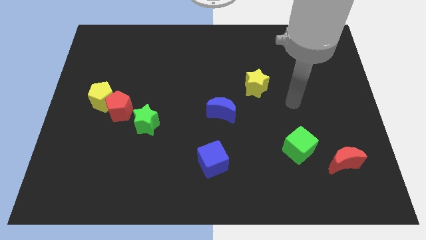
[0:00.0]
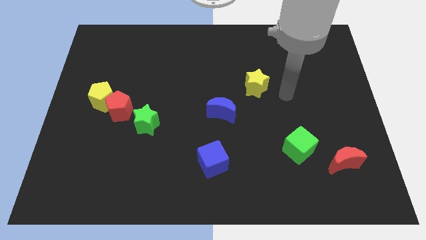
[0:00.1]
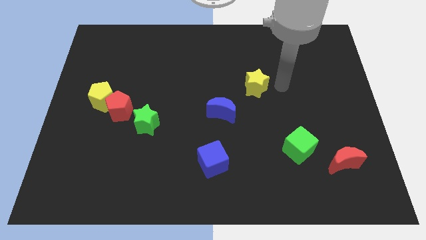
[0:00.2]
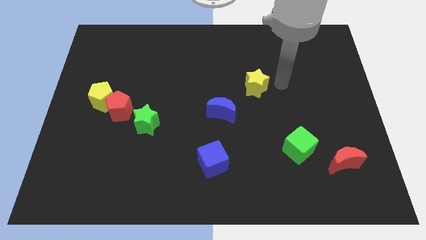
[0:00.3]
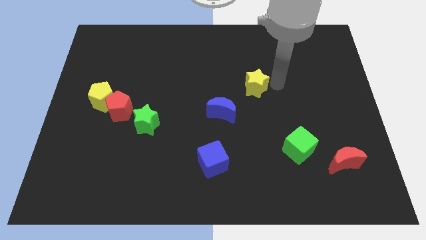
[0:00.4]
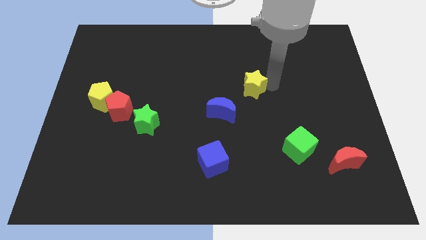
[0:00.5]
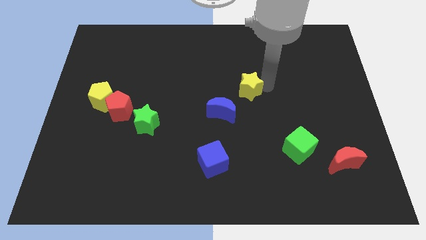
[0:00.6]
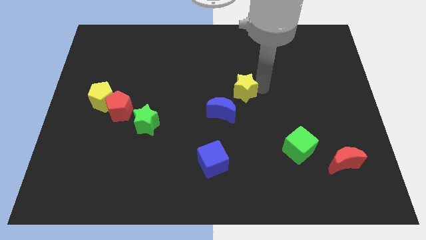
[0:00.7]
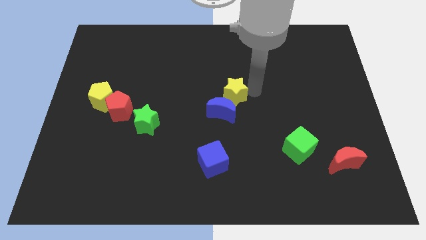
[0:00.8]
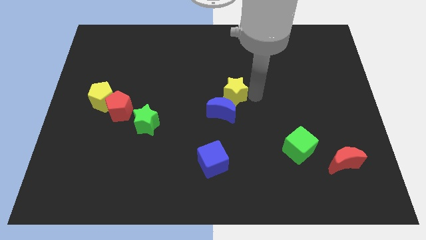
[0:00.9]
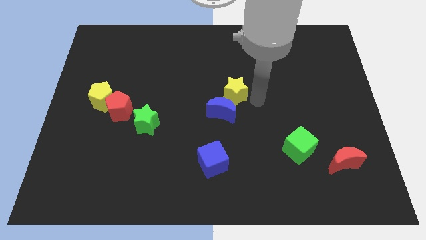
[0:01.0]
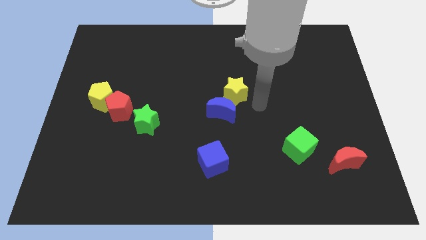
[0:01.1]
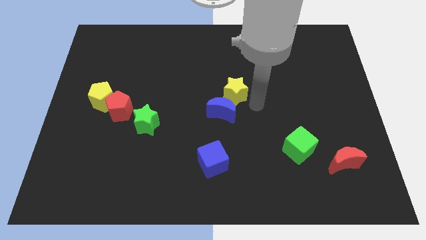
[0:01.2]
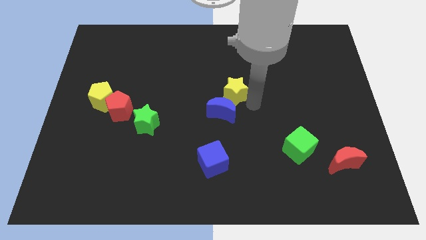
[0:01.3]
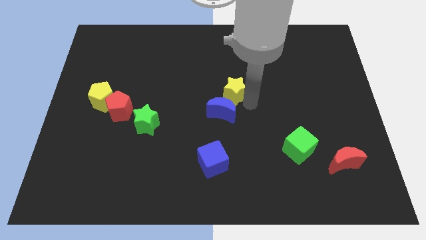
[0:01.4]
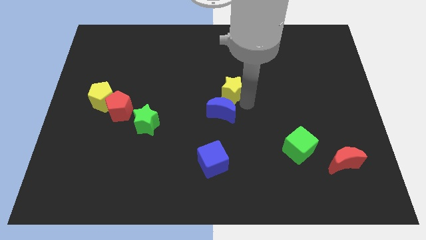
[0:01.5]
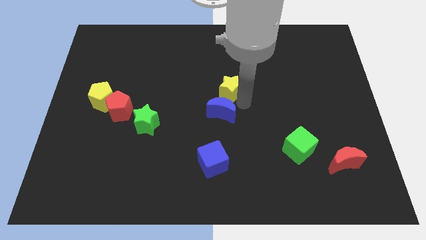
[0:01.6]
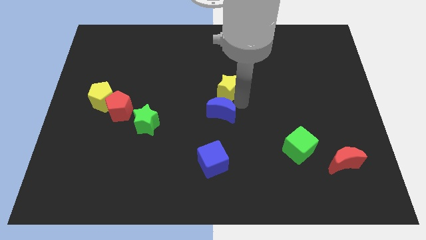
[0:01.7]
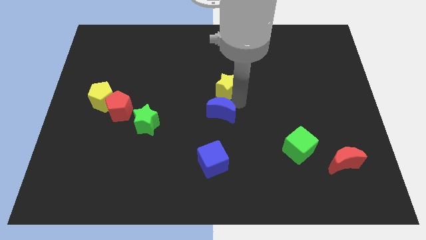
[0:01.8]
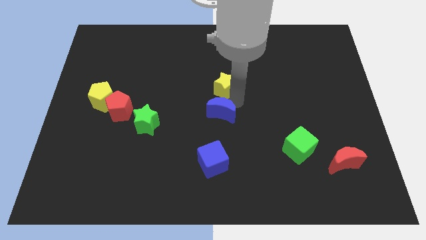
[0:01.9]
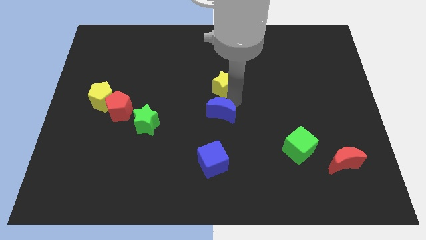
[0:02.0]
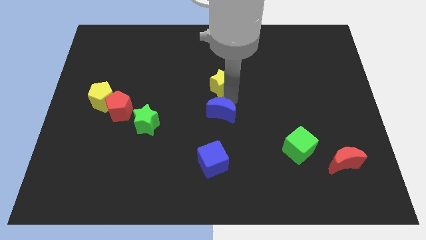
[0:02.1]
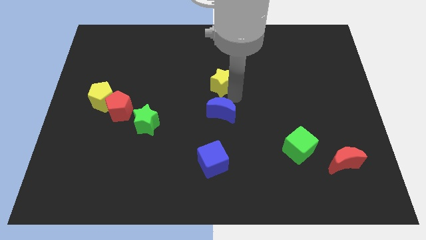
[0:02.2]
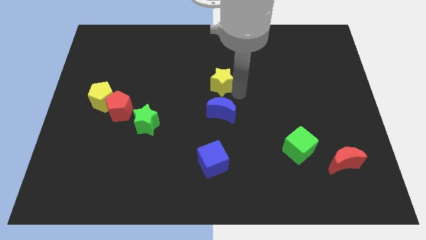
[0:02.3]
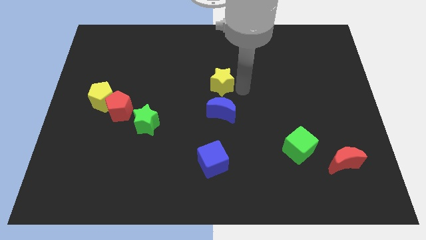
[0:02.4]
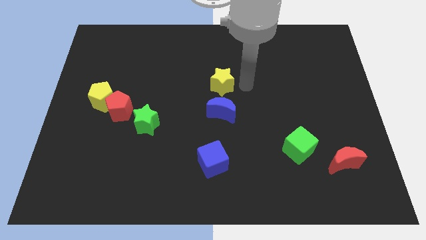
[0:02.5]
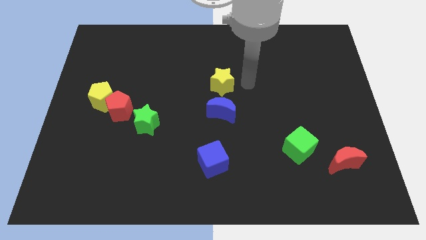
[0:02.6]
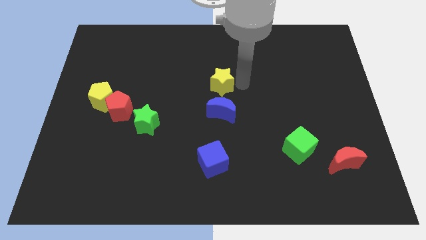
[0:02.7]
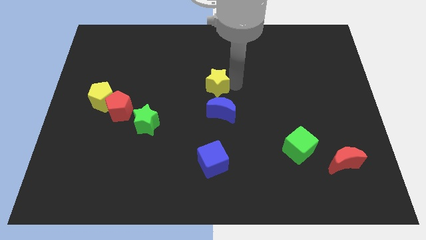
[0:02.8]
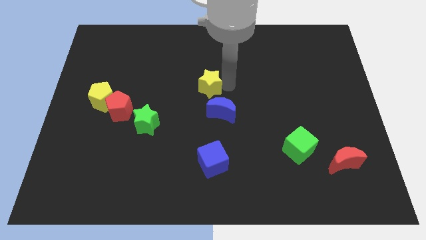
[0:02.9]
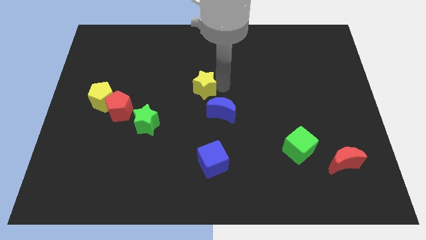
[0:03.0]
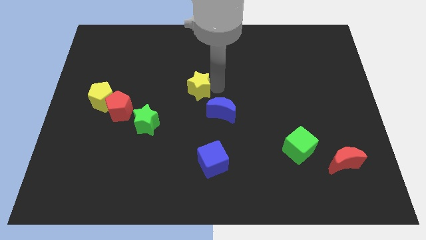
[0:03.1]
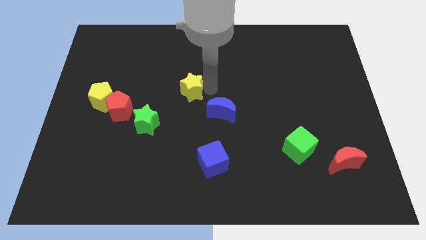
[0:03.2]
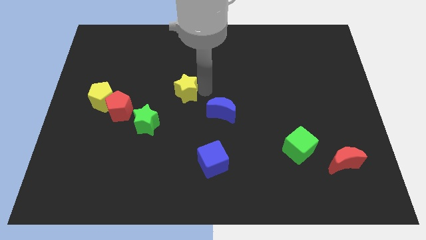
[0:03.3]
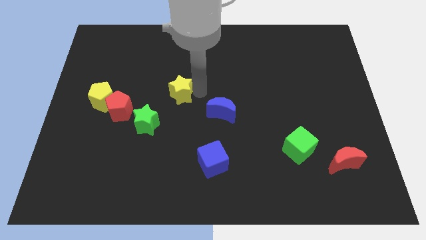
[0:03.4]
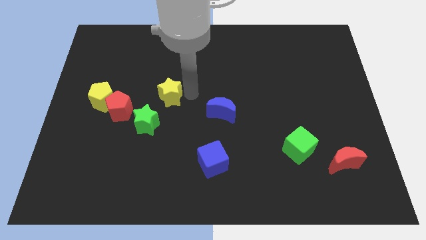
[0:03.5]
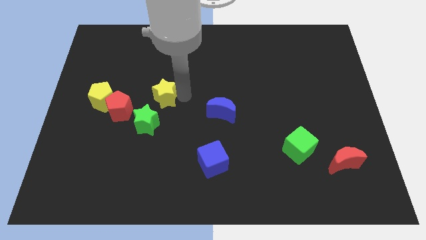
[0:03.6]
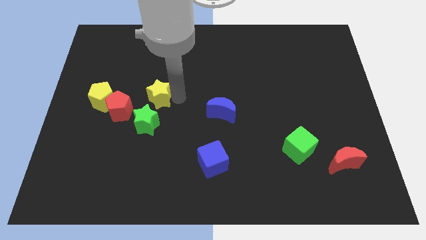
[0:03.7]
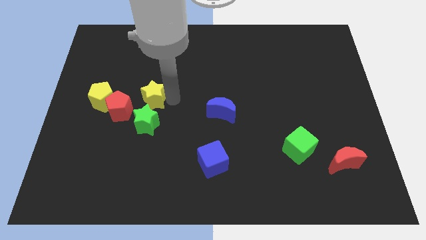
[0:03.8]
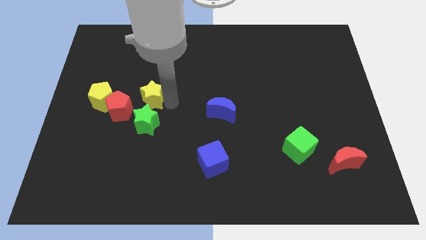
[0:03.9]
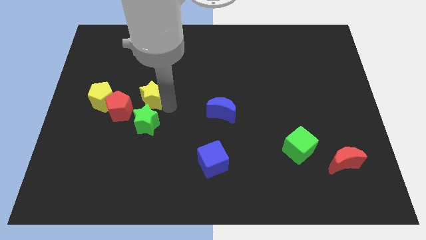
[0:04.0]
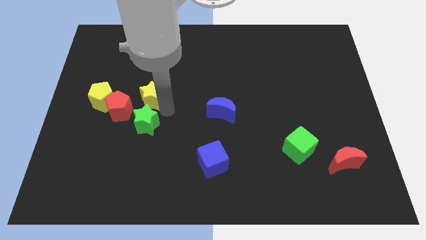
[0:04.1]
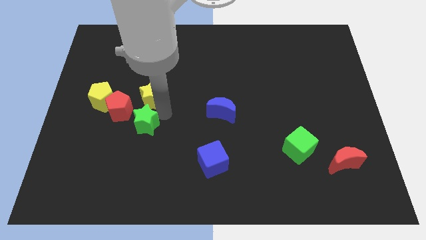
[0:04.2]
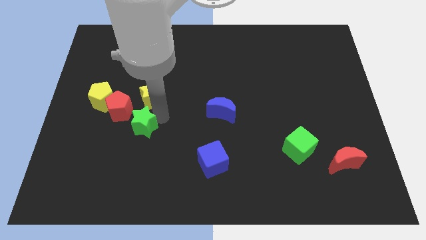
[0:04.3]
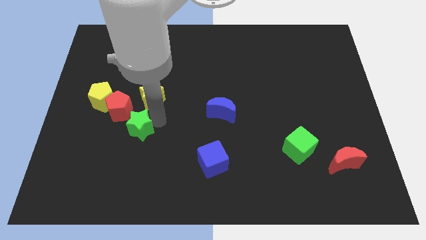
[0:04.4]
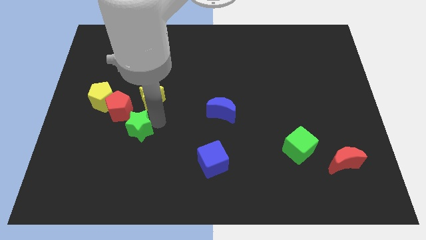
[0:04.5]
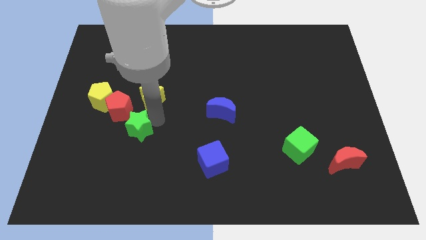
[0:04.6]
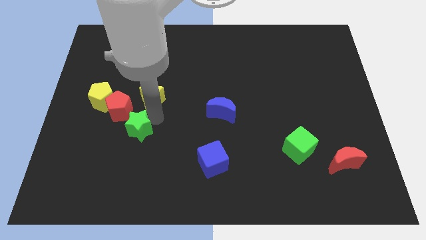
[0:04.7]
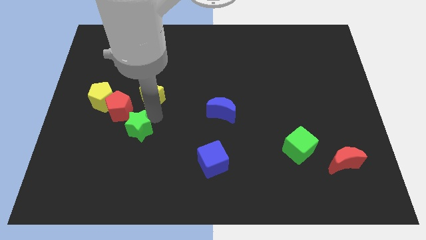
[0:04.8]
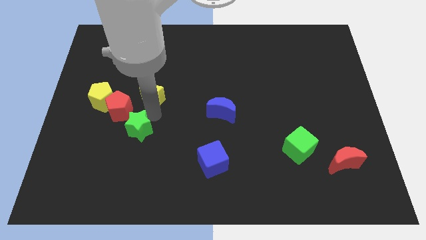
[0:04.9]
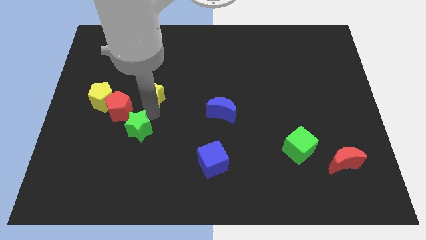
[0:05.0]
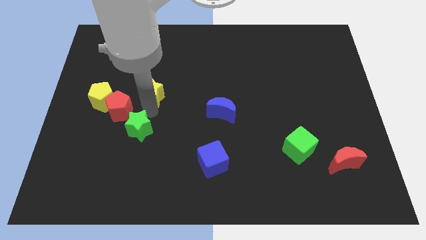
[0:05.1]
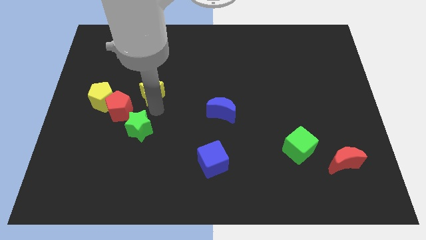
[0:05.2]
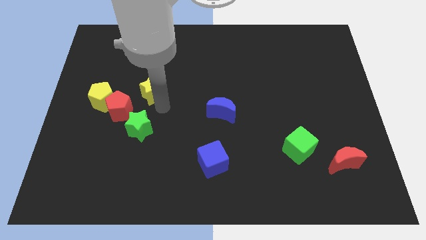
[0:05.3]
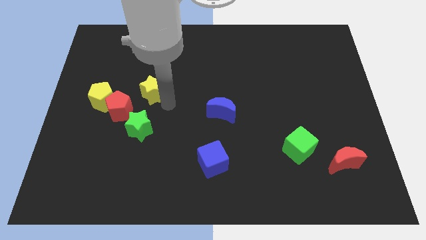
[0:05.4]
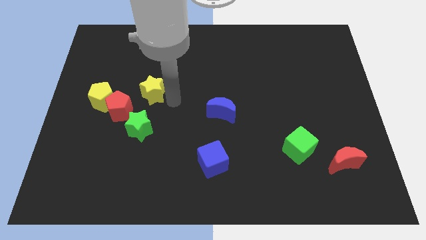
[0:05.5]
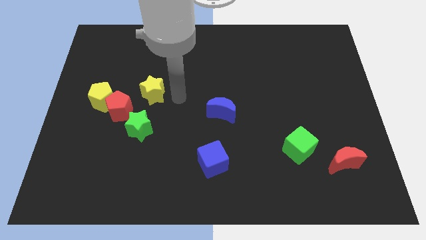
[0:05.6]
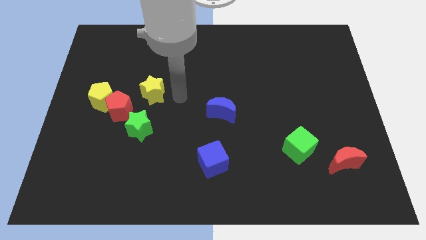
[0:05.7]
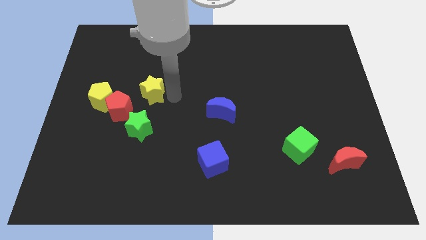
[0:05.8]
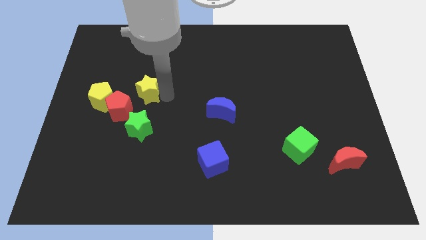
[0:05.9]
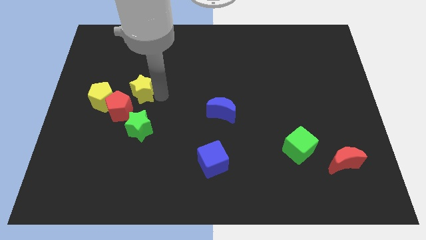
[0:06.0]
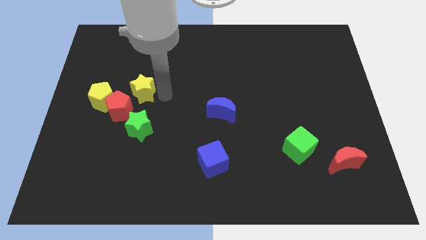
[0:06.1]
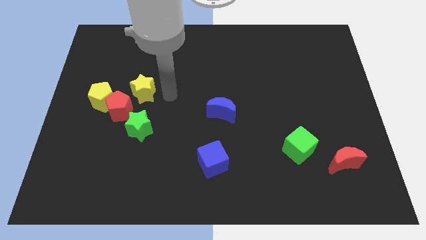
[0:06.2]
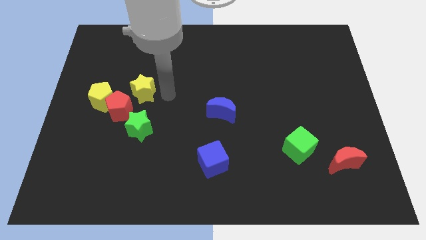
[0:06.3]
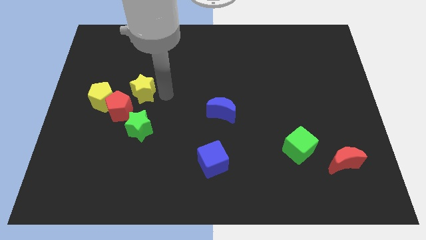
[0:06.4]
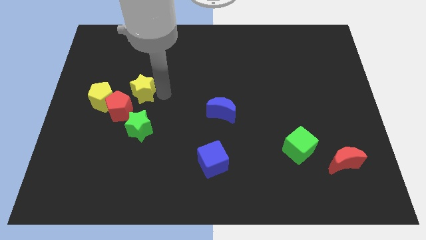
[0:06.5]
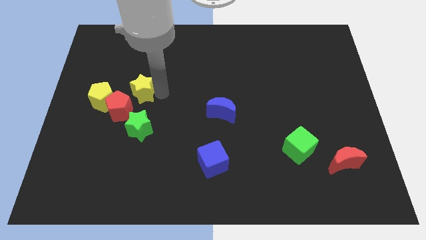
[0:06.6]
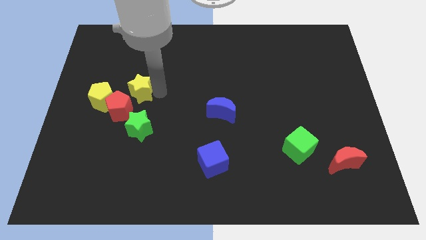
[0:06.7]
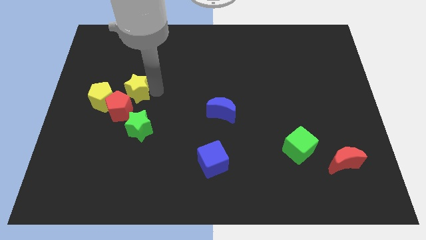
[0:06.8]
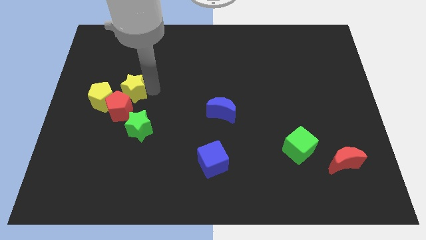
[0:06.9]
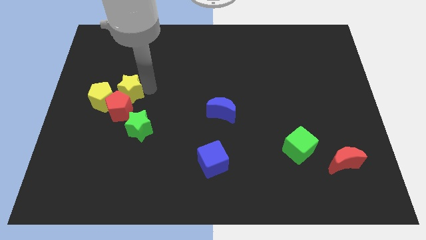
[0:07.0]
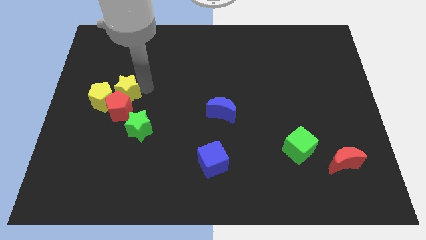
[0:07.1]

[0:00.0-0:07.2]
push the yellow star close to the yellow pentagon
